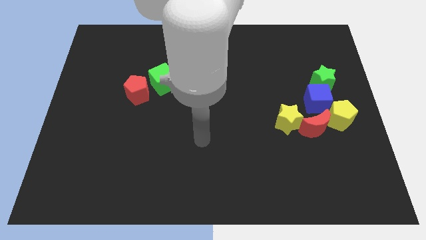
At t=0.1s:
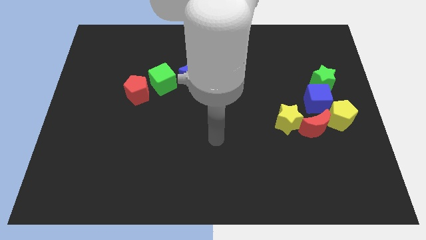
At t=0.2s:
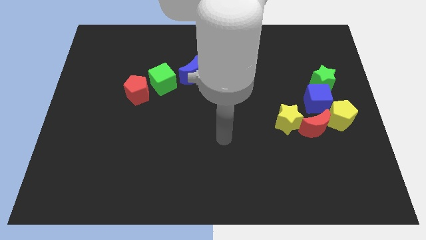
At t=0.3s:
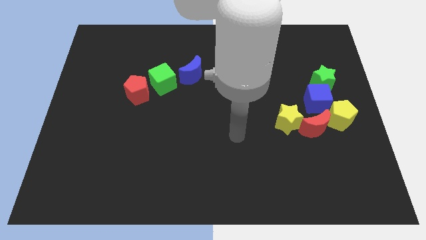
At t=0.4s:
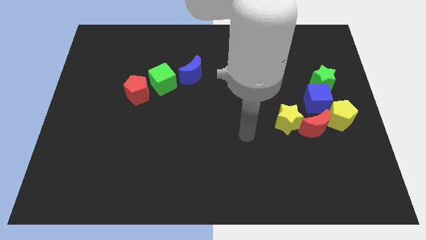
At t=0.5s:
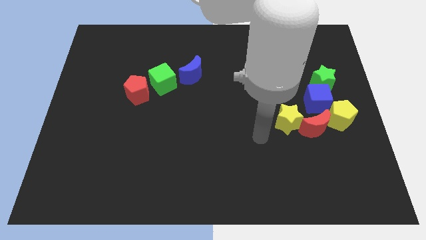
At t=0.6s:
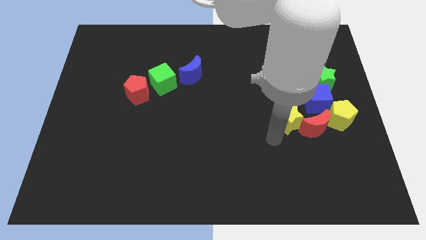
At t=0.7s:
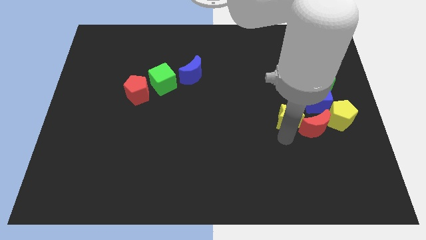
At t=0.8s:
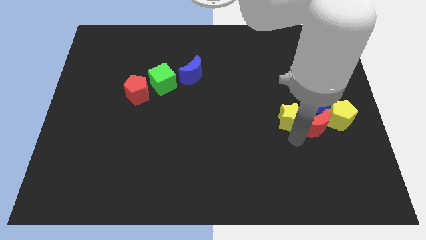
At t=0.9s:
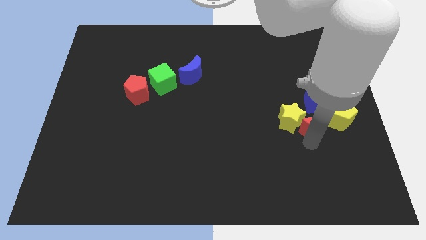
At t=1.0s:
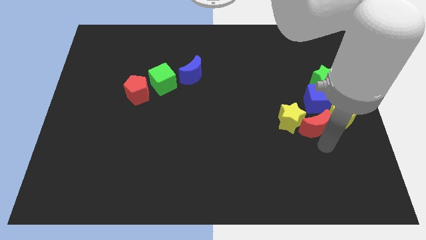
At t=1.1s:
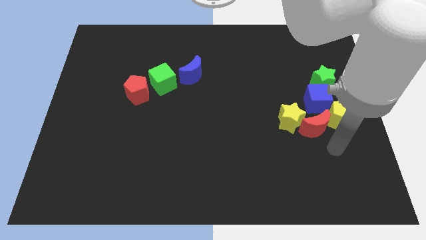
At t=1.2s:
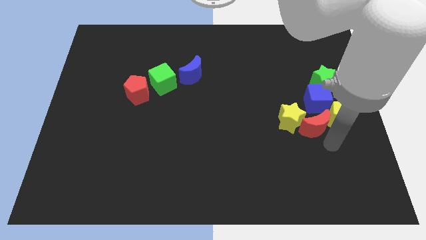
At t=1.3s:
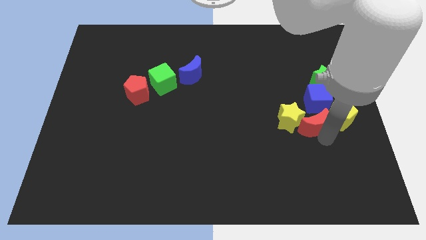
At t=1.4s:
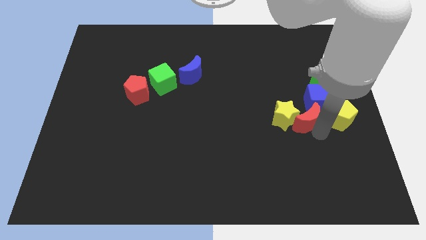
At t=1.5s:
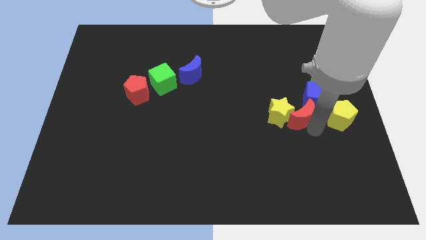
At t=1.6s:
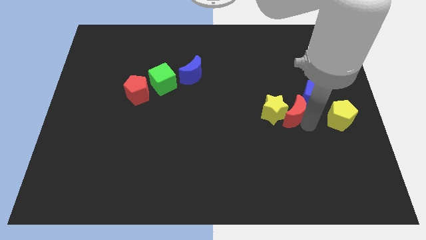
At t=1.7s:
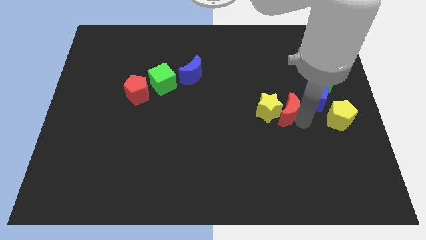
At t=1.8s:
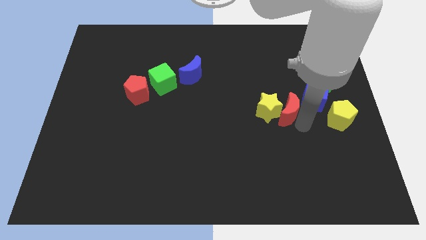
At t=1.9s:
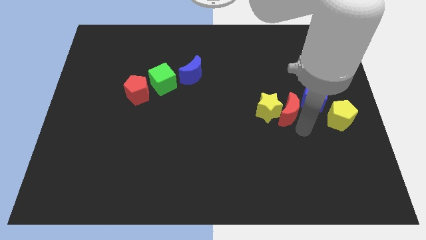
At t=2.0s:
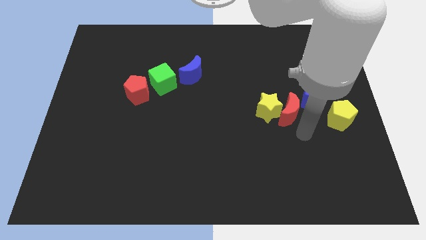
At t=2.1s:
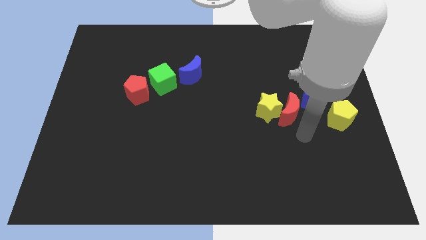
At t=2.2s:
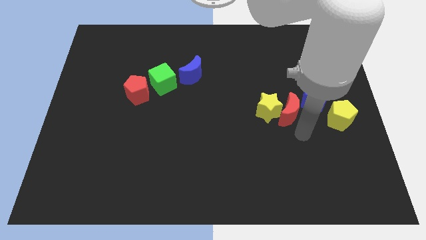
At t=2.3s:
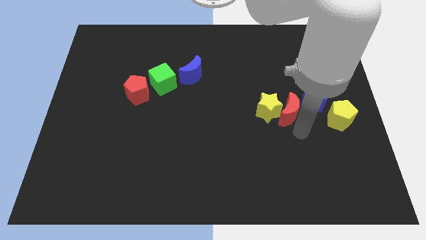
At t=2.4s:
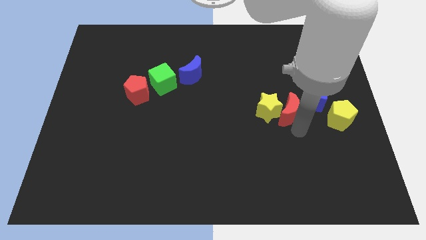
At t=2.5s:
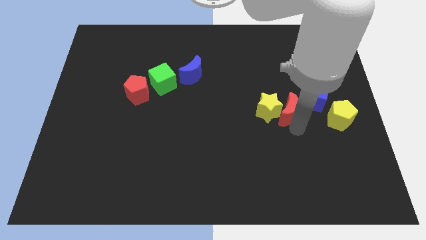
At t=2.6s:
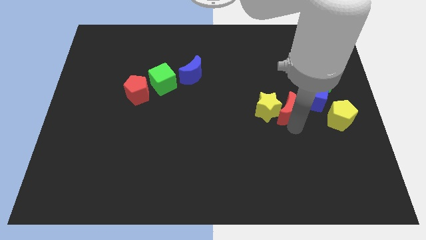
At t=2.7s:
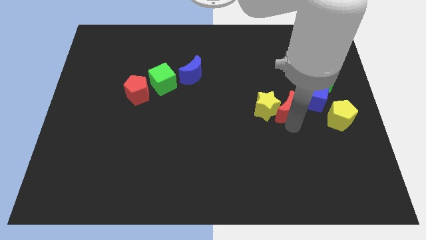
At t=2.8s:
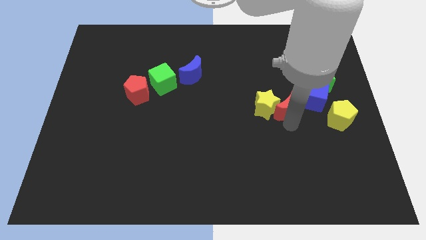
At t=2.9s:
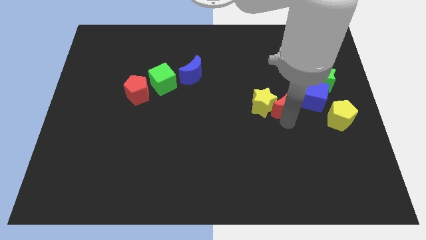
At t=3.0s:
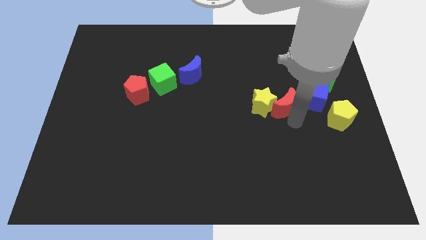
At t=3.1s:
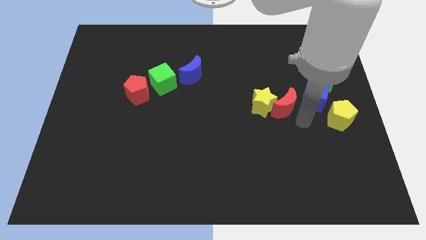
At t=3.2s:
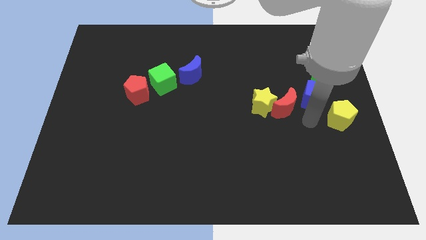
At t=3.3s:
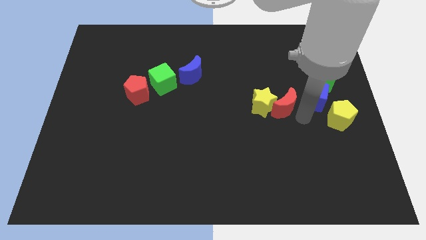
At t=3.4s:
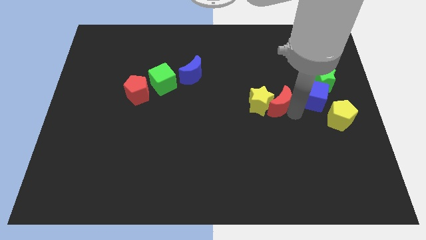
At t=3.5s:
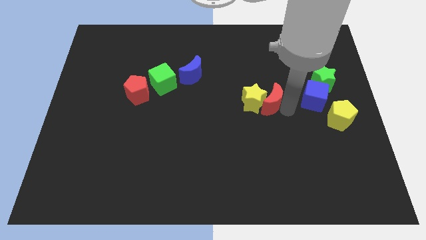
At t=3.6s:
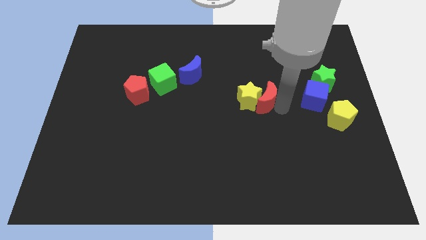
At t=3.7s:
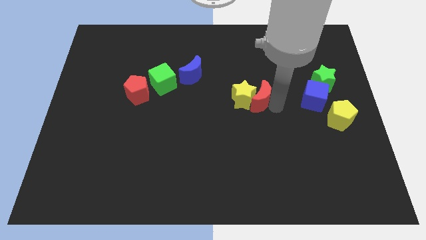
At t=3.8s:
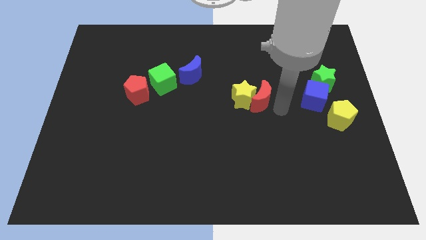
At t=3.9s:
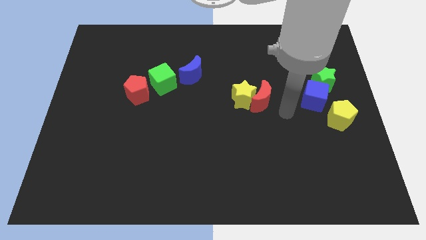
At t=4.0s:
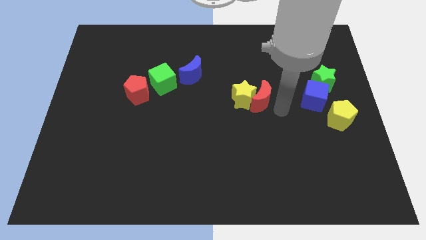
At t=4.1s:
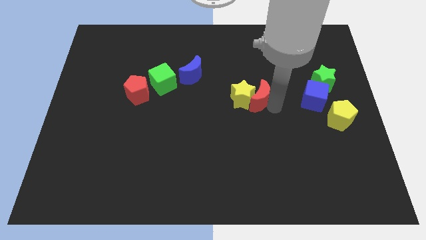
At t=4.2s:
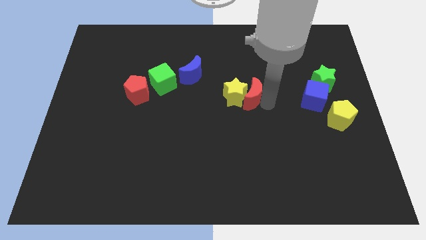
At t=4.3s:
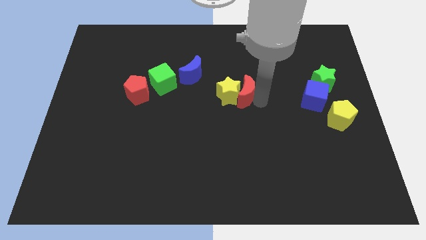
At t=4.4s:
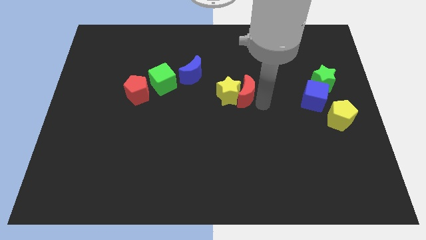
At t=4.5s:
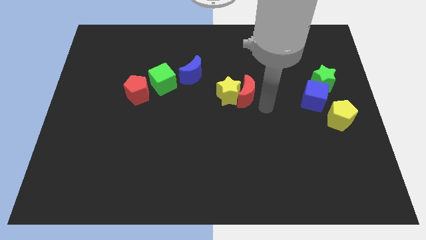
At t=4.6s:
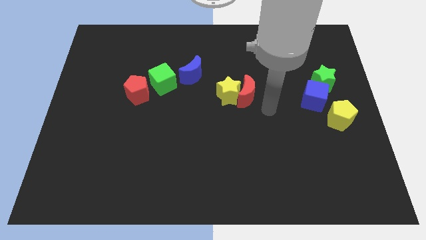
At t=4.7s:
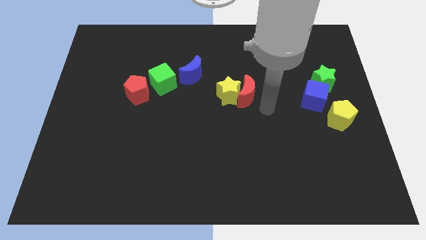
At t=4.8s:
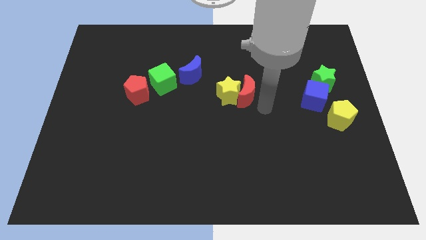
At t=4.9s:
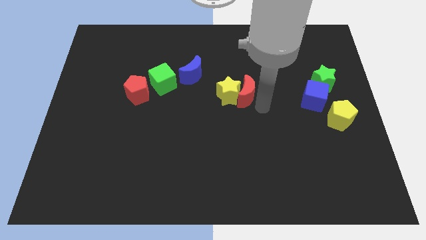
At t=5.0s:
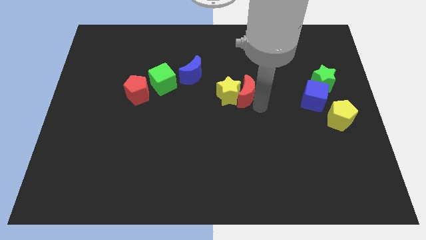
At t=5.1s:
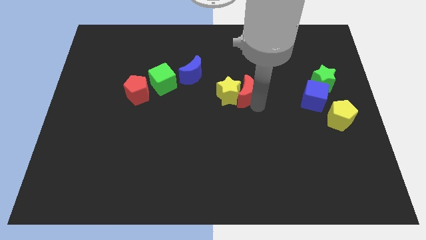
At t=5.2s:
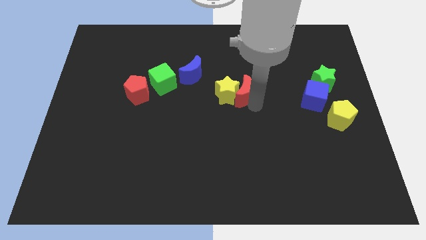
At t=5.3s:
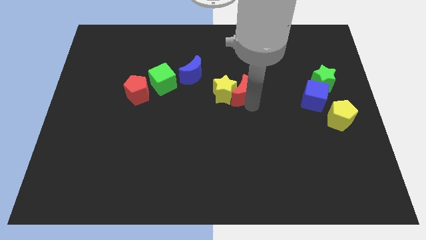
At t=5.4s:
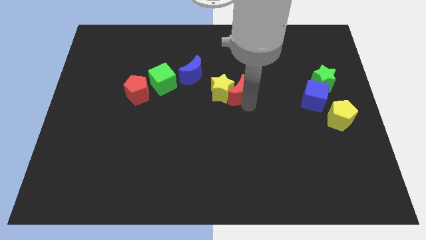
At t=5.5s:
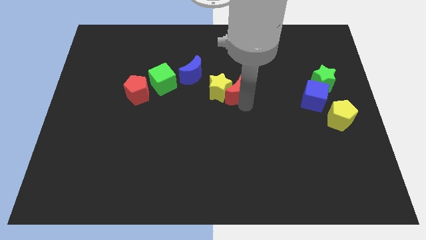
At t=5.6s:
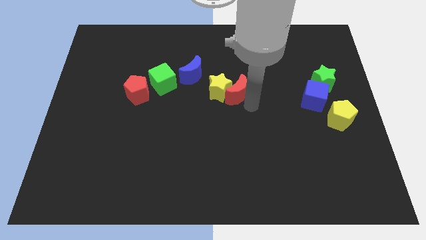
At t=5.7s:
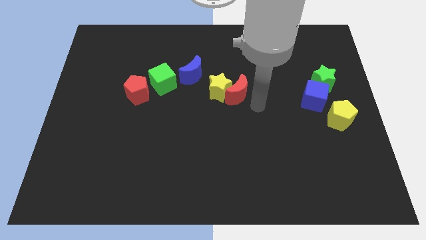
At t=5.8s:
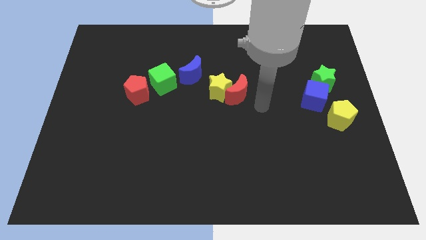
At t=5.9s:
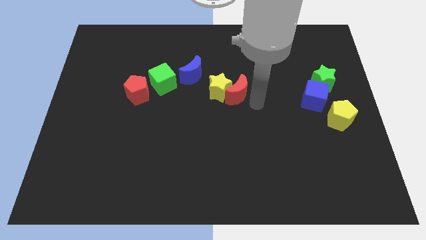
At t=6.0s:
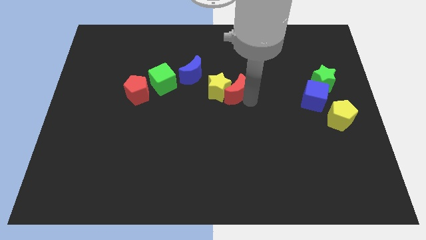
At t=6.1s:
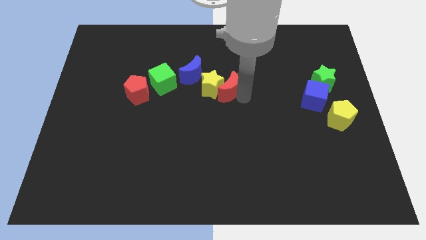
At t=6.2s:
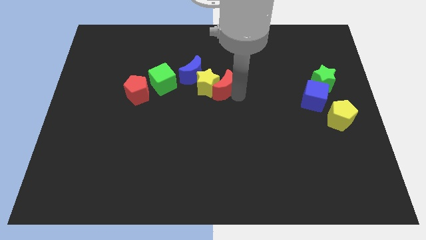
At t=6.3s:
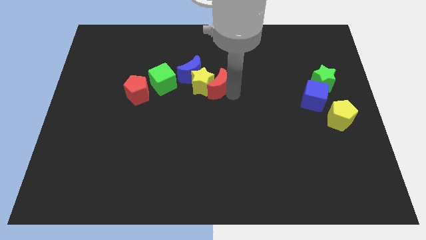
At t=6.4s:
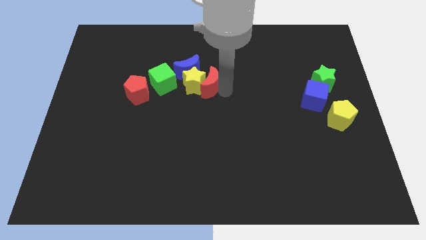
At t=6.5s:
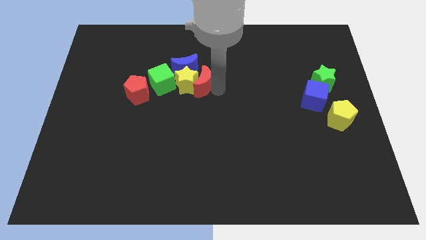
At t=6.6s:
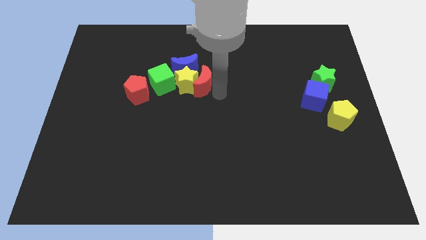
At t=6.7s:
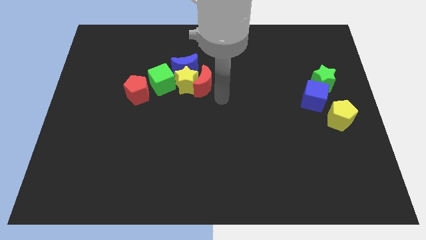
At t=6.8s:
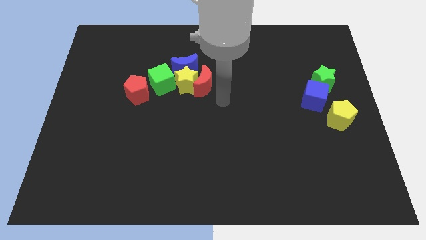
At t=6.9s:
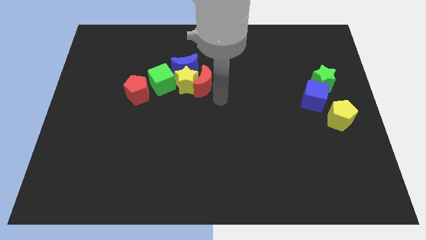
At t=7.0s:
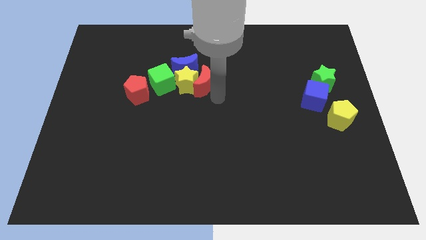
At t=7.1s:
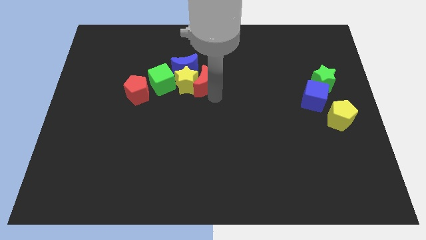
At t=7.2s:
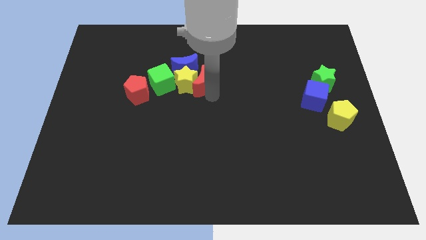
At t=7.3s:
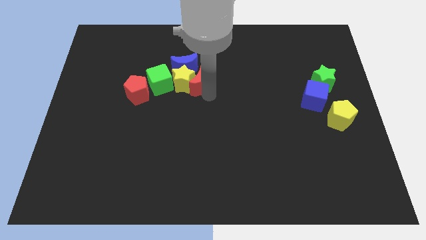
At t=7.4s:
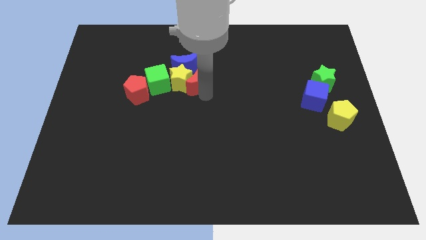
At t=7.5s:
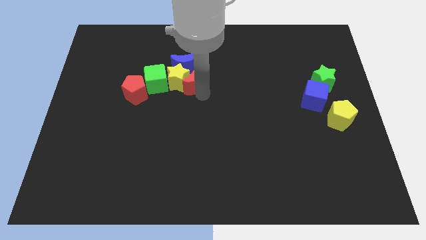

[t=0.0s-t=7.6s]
slide the red moon to the blue moon

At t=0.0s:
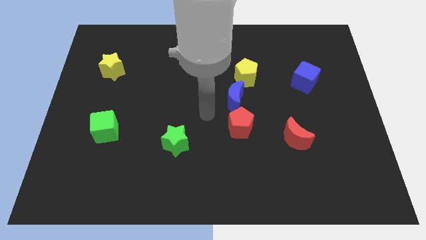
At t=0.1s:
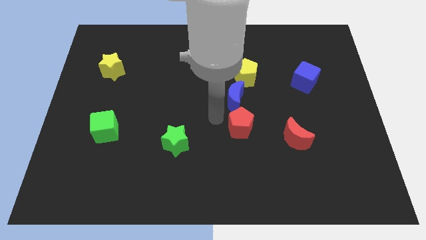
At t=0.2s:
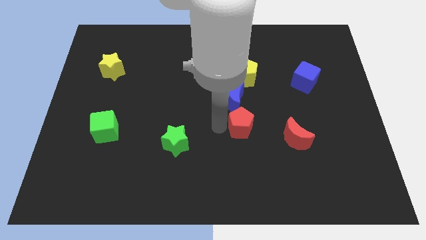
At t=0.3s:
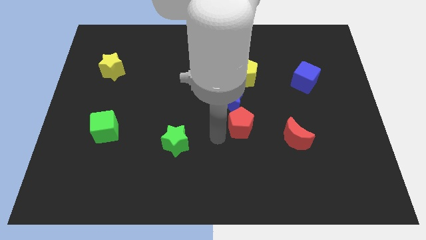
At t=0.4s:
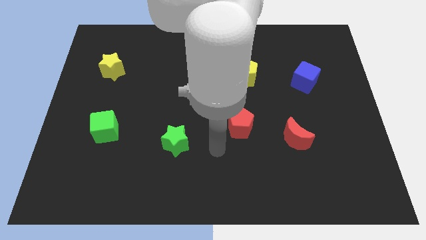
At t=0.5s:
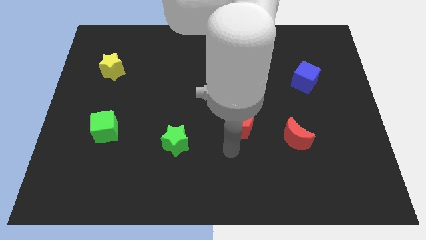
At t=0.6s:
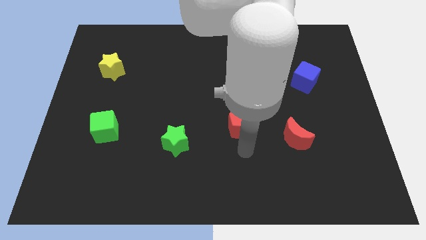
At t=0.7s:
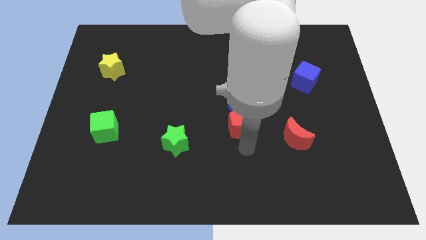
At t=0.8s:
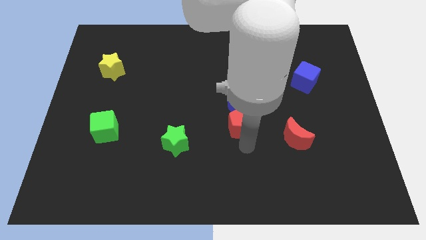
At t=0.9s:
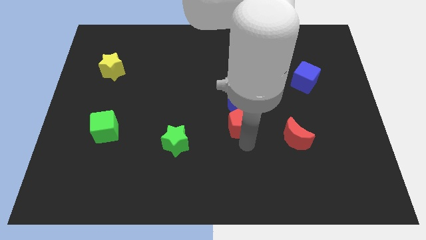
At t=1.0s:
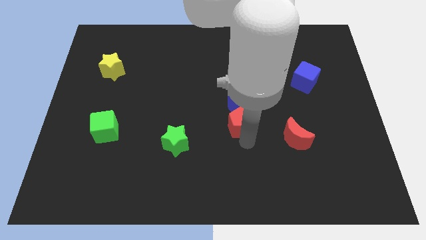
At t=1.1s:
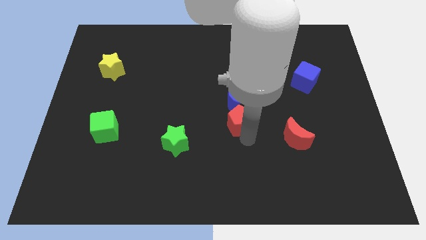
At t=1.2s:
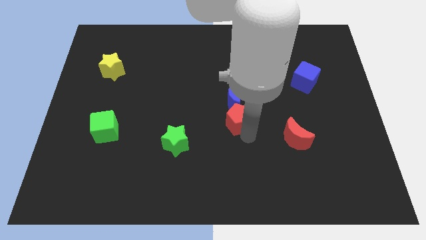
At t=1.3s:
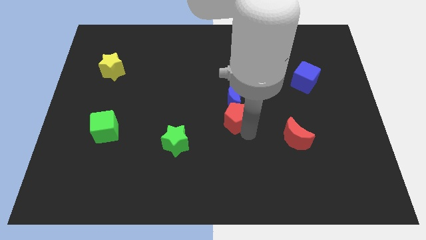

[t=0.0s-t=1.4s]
move the red pentagon towards the blue moon
